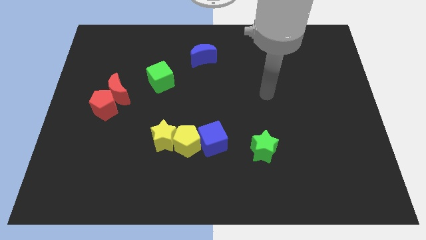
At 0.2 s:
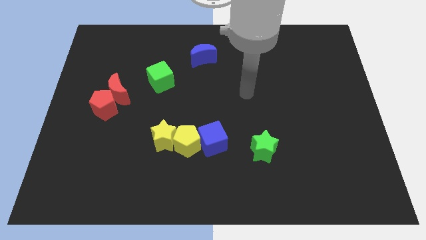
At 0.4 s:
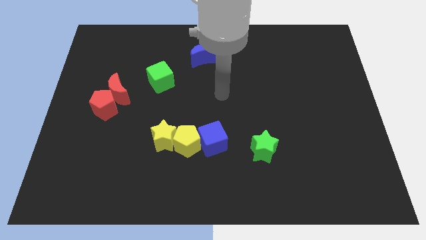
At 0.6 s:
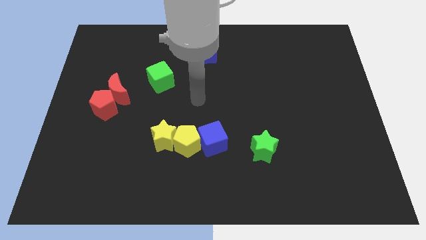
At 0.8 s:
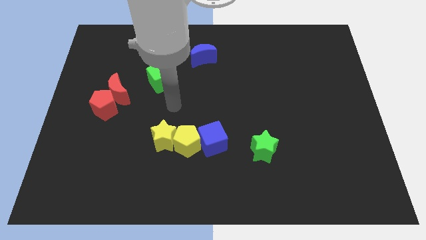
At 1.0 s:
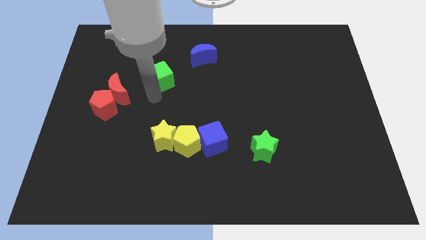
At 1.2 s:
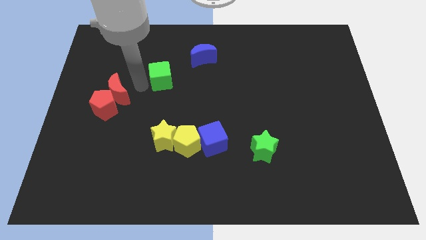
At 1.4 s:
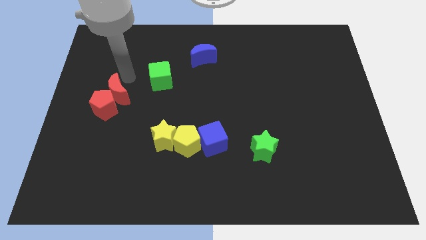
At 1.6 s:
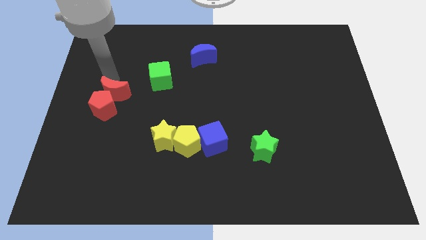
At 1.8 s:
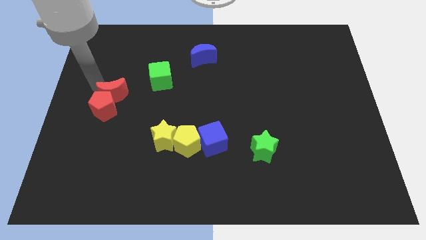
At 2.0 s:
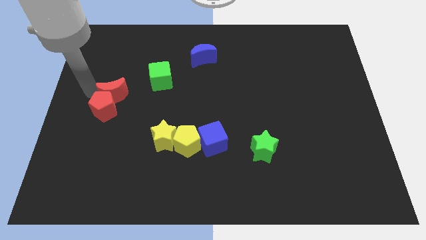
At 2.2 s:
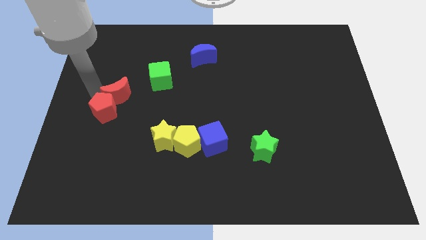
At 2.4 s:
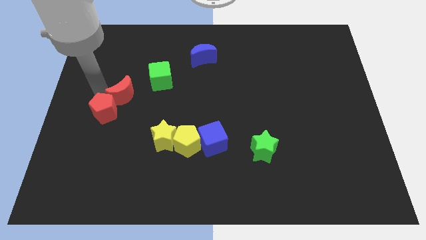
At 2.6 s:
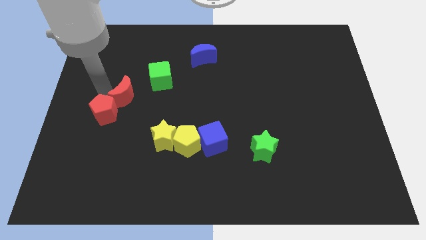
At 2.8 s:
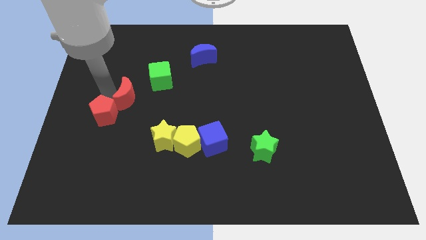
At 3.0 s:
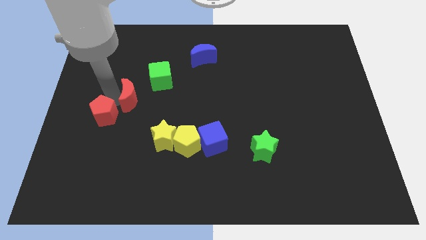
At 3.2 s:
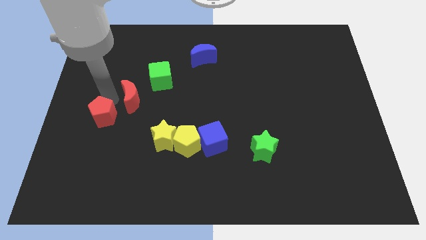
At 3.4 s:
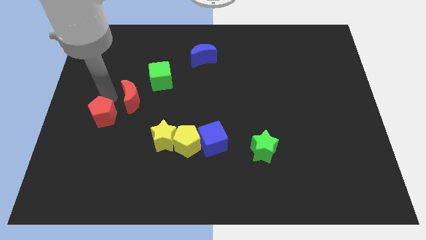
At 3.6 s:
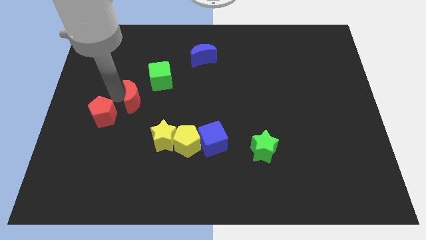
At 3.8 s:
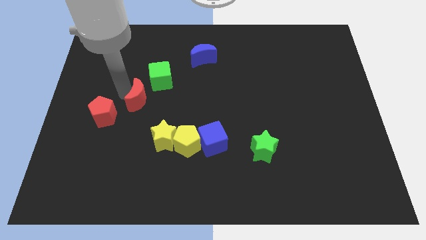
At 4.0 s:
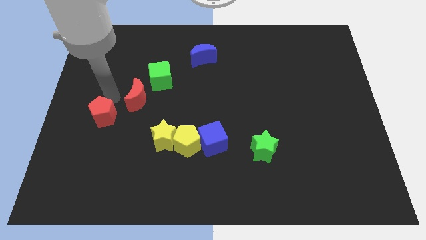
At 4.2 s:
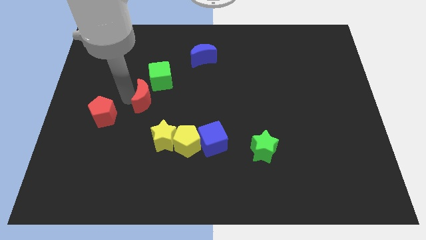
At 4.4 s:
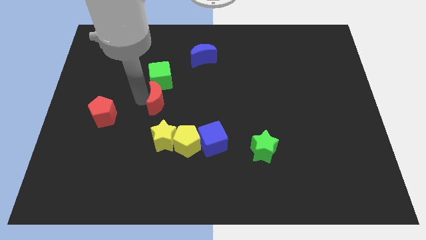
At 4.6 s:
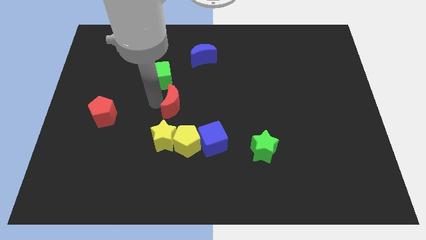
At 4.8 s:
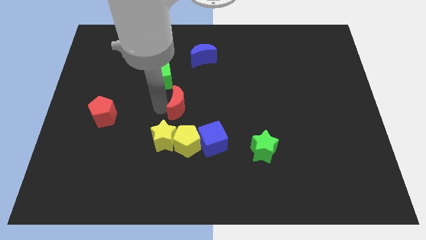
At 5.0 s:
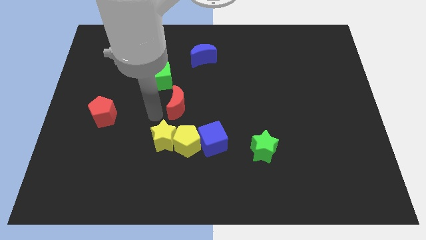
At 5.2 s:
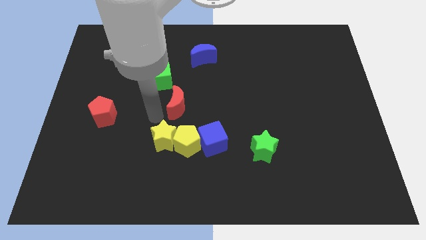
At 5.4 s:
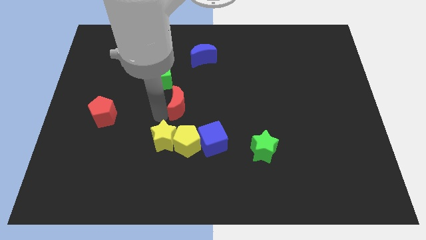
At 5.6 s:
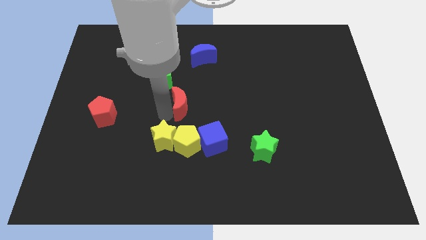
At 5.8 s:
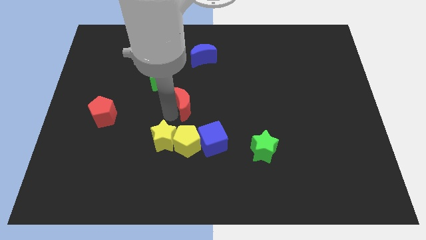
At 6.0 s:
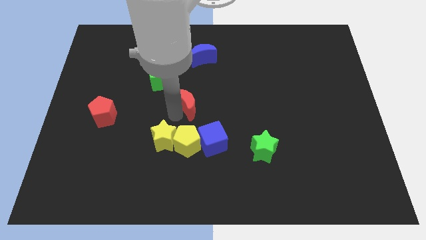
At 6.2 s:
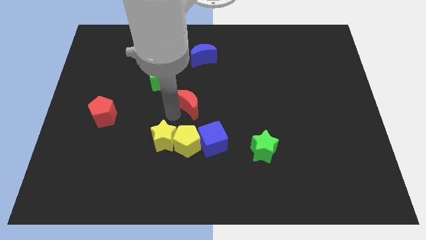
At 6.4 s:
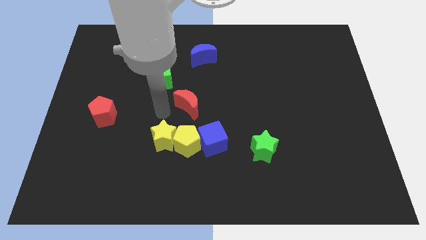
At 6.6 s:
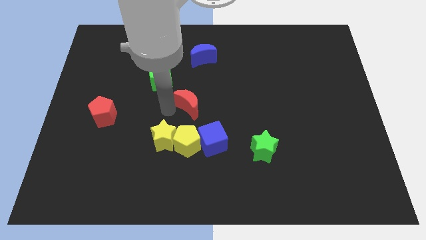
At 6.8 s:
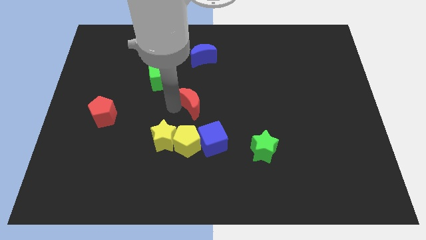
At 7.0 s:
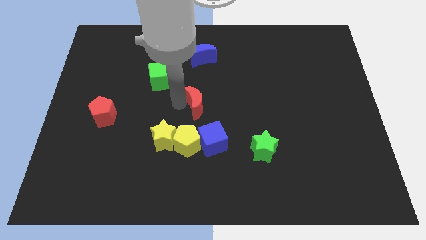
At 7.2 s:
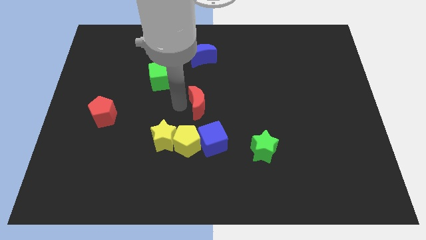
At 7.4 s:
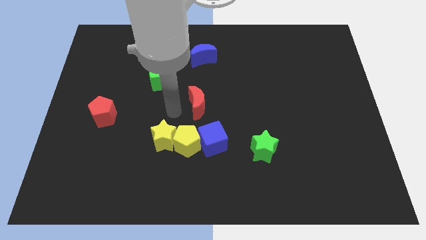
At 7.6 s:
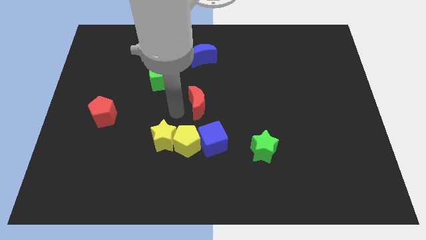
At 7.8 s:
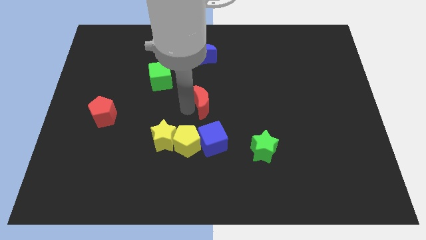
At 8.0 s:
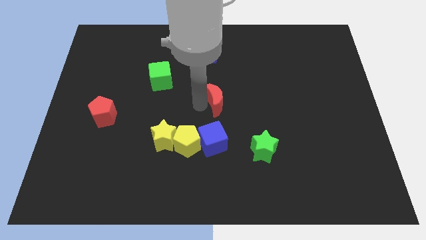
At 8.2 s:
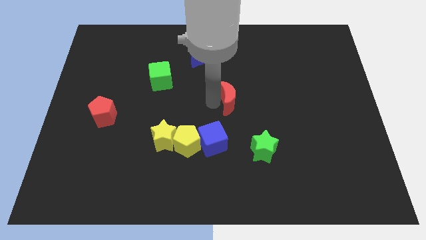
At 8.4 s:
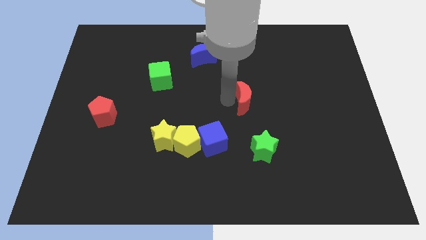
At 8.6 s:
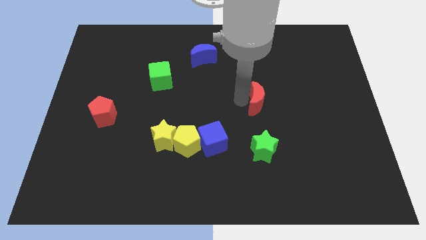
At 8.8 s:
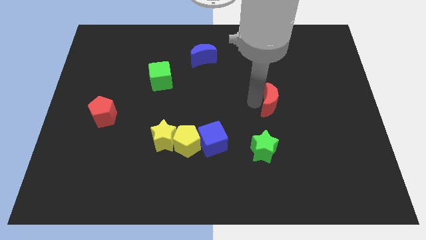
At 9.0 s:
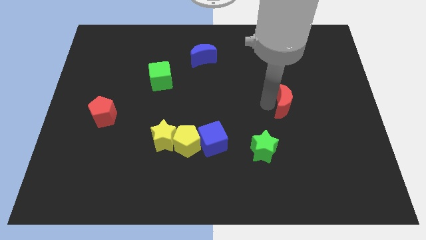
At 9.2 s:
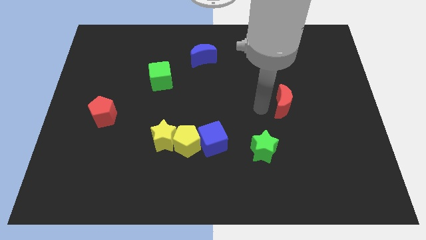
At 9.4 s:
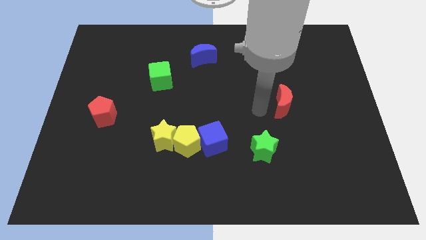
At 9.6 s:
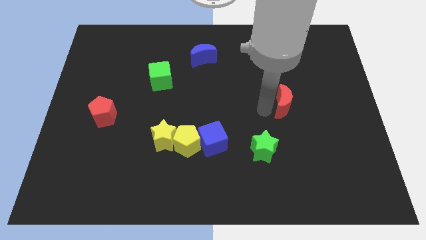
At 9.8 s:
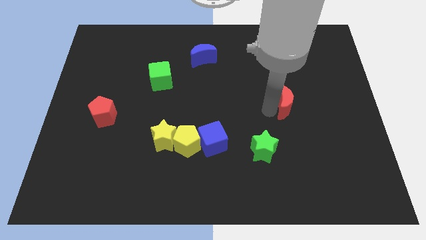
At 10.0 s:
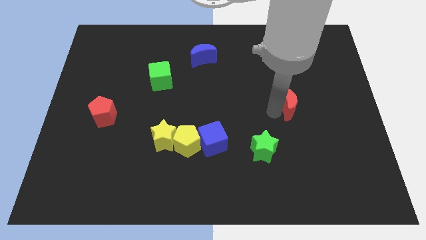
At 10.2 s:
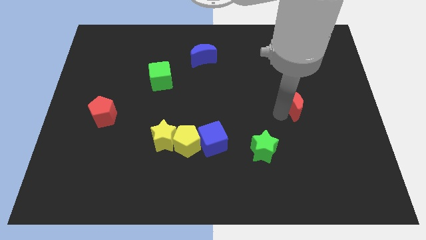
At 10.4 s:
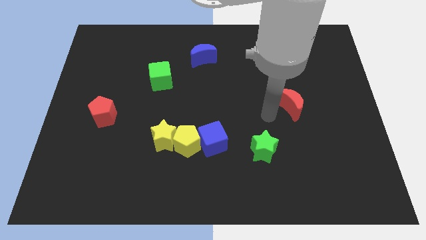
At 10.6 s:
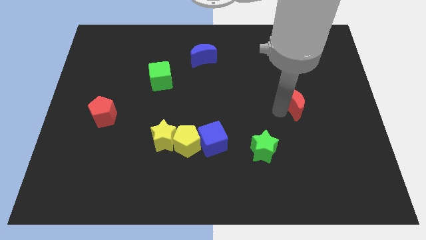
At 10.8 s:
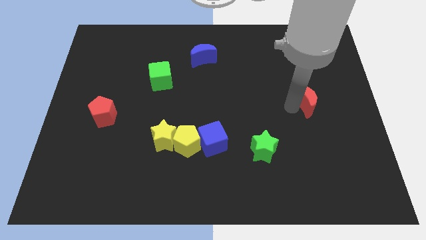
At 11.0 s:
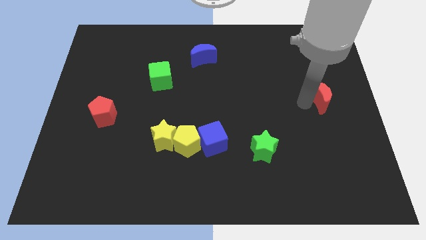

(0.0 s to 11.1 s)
put the red moon to the right side of the board
